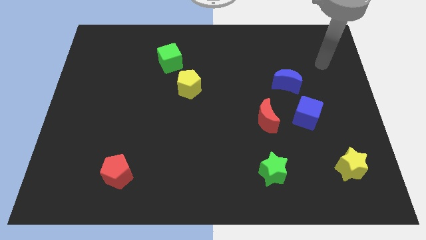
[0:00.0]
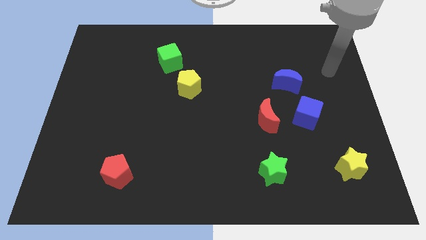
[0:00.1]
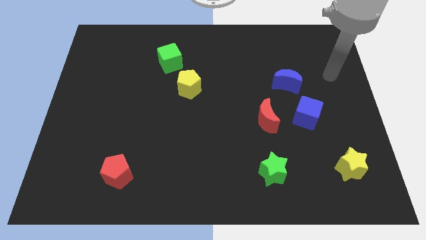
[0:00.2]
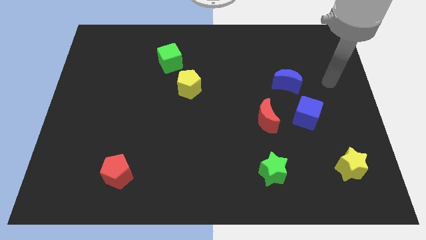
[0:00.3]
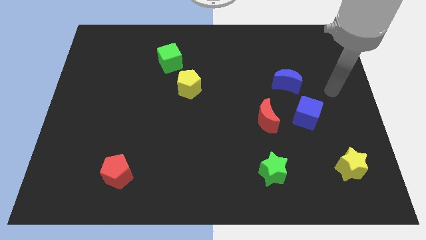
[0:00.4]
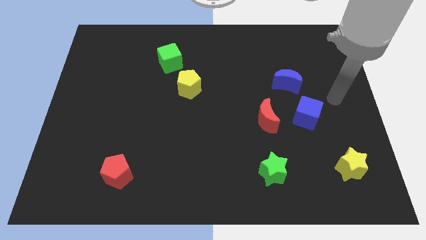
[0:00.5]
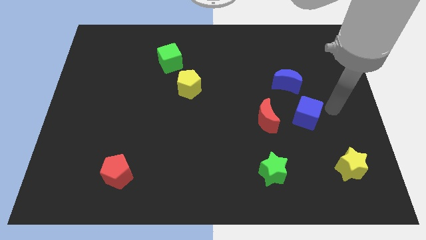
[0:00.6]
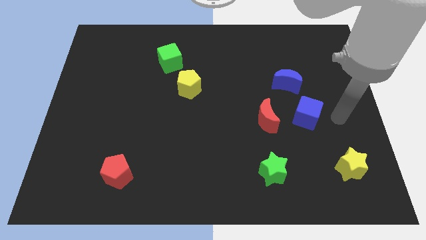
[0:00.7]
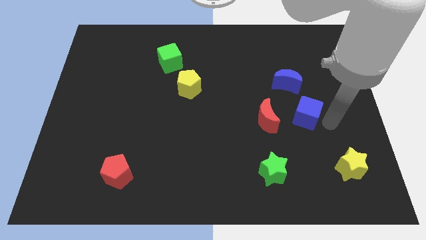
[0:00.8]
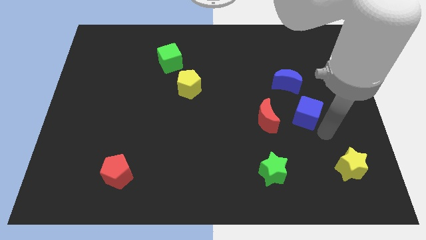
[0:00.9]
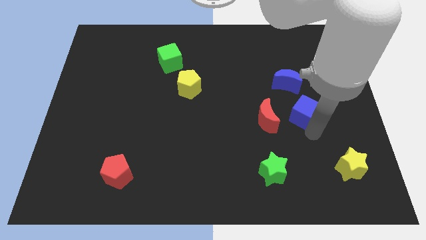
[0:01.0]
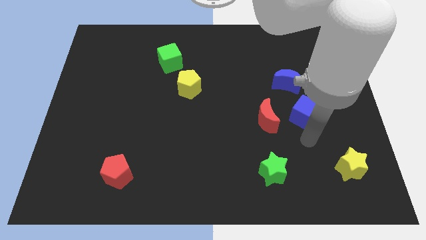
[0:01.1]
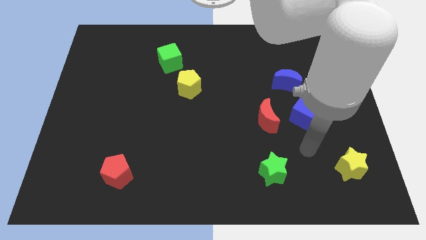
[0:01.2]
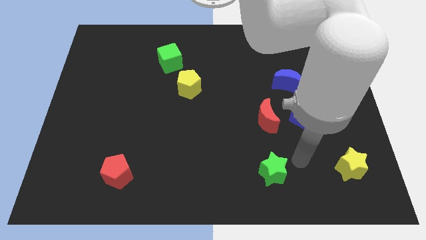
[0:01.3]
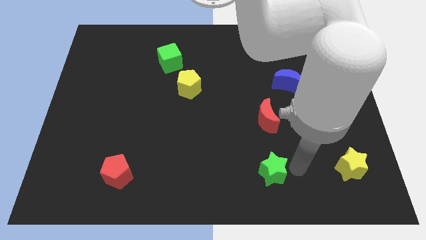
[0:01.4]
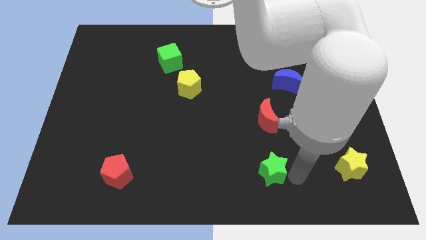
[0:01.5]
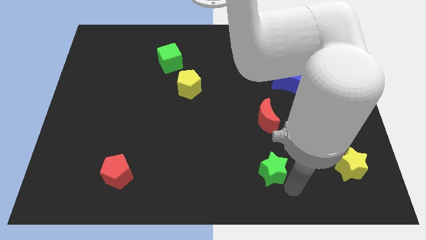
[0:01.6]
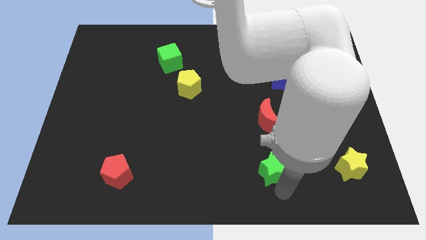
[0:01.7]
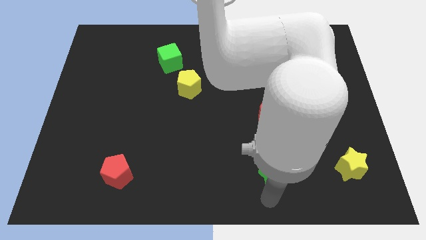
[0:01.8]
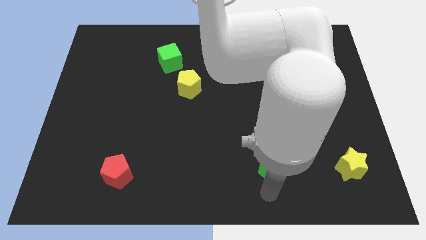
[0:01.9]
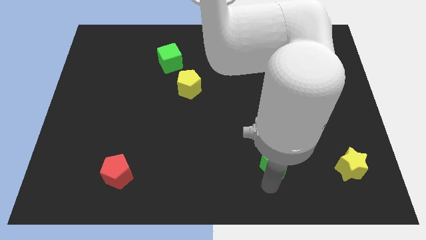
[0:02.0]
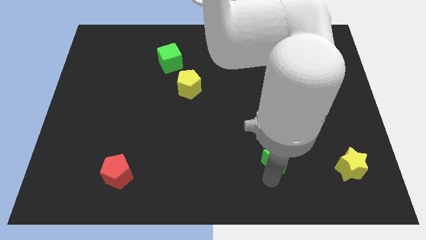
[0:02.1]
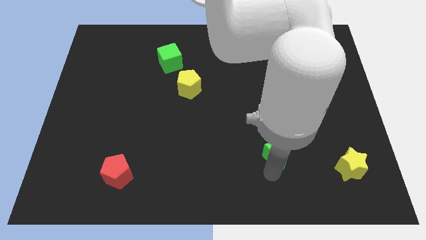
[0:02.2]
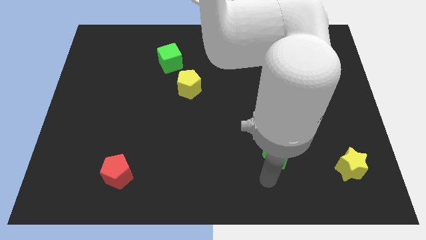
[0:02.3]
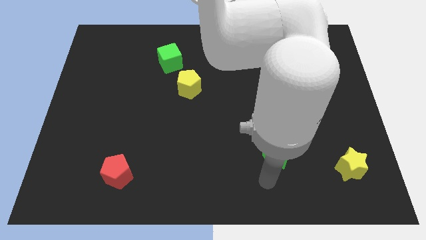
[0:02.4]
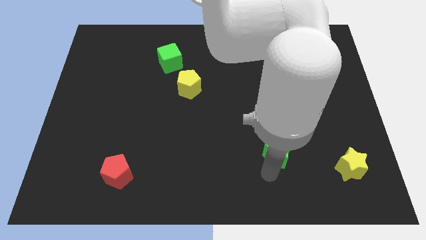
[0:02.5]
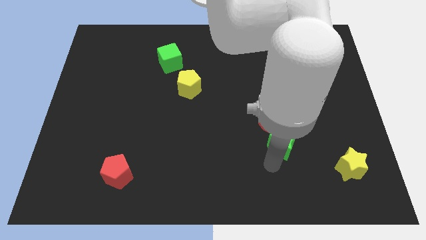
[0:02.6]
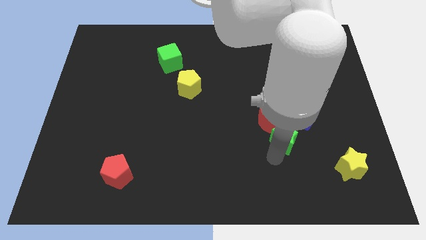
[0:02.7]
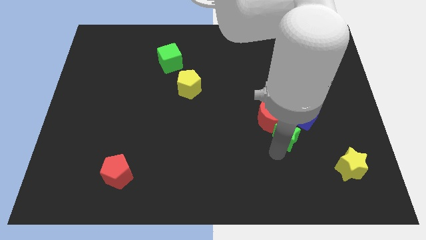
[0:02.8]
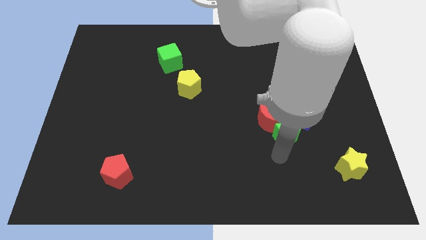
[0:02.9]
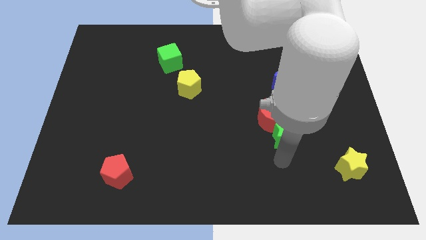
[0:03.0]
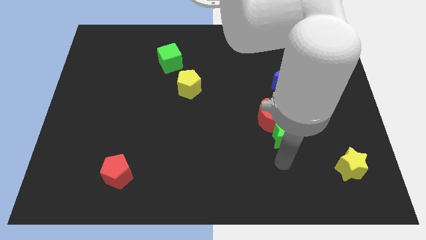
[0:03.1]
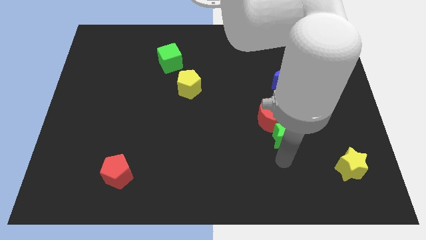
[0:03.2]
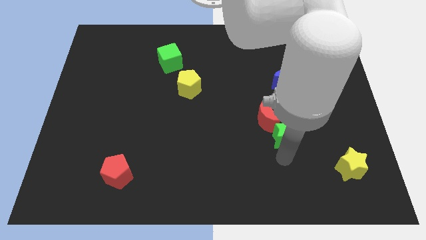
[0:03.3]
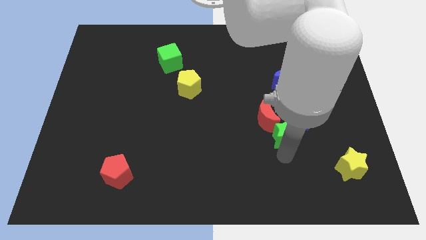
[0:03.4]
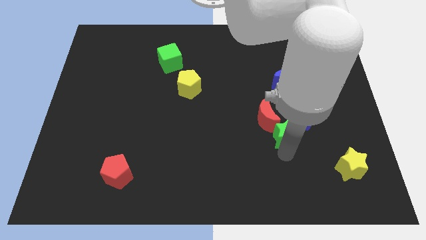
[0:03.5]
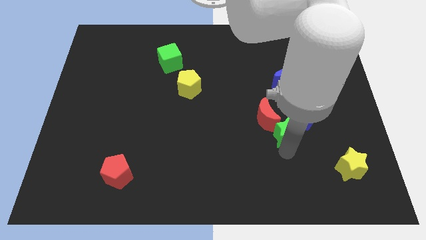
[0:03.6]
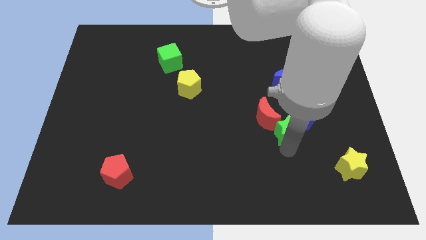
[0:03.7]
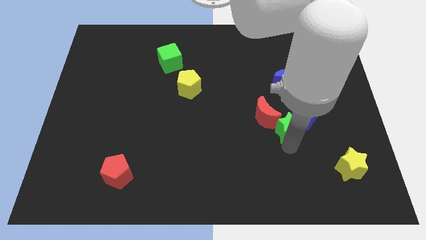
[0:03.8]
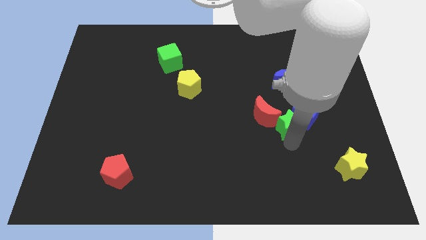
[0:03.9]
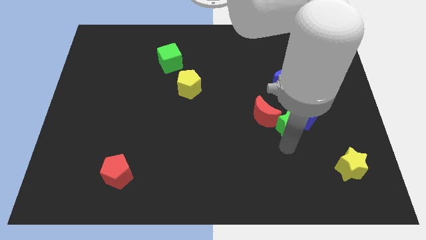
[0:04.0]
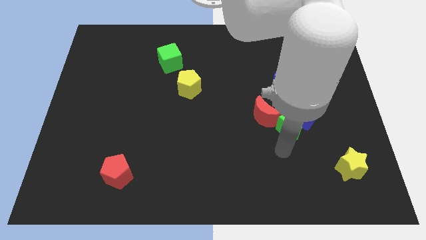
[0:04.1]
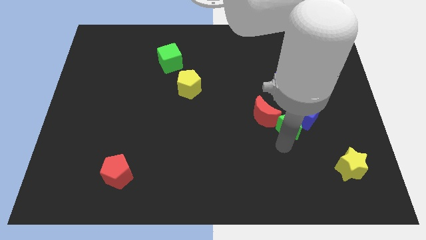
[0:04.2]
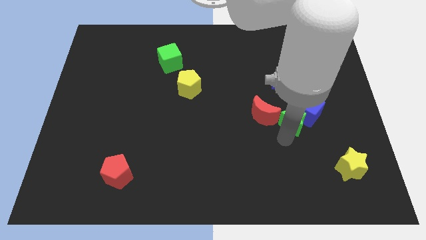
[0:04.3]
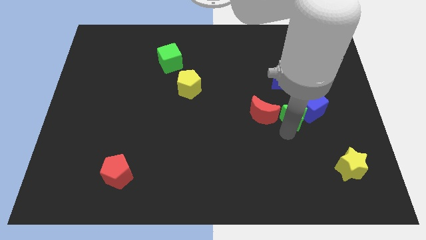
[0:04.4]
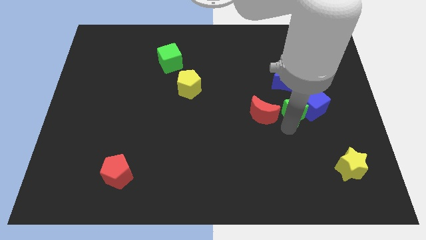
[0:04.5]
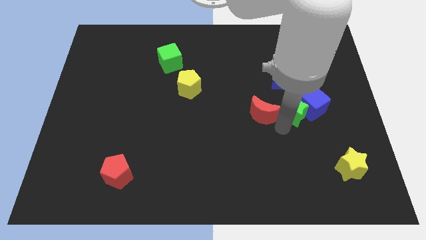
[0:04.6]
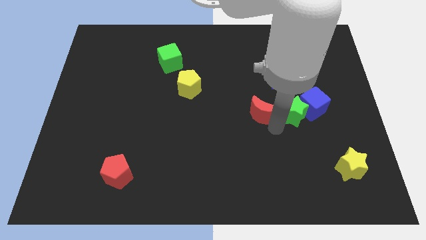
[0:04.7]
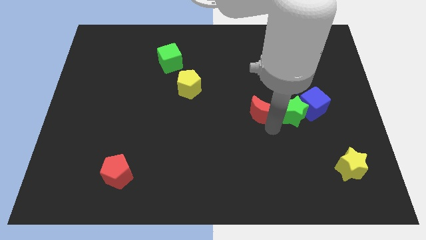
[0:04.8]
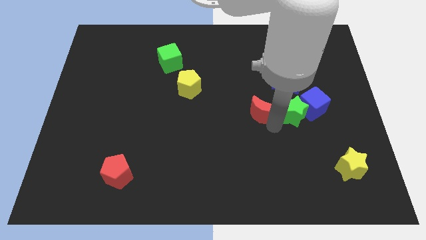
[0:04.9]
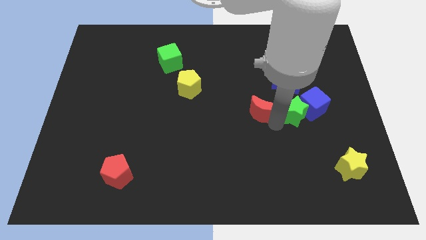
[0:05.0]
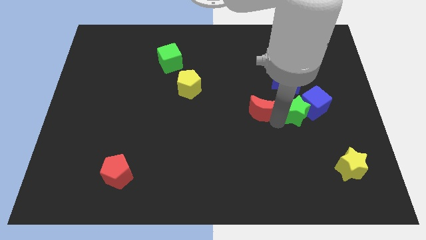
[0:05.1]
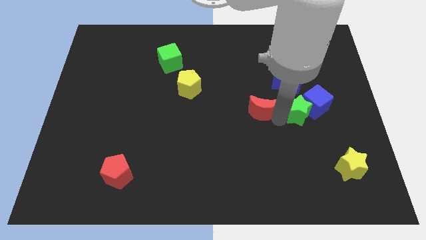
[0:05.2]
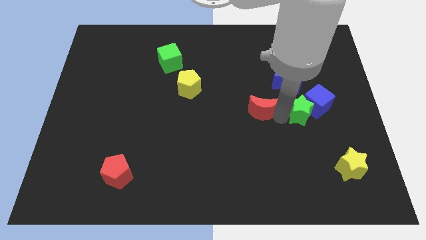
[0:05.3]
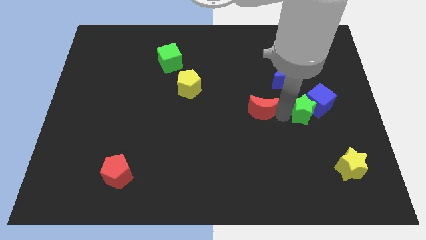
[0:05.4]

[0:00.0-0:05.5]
put the green star to the bottom right of the blue moon

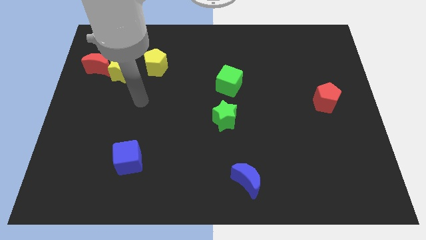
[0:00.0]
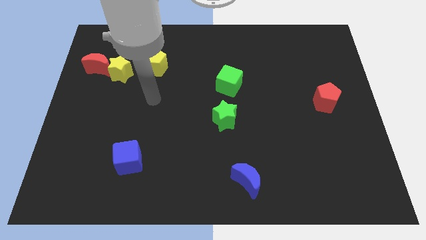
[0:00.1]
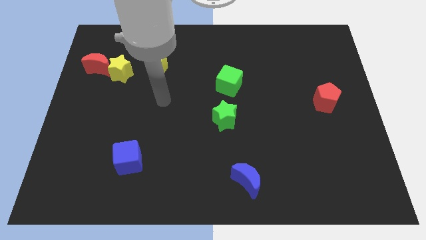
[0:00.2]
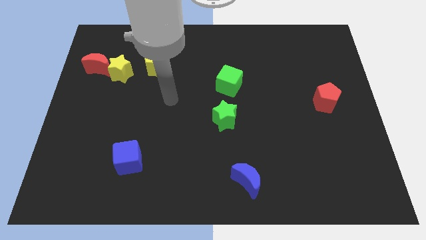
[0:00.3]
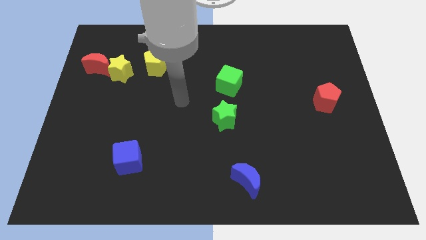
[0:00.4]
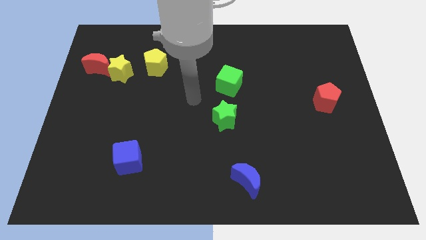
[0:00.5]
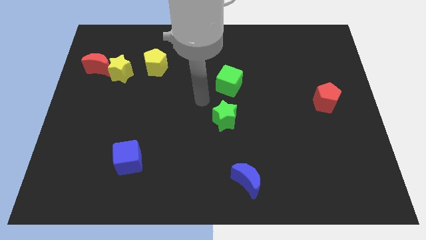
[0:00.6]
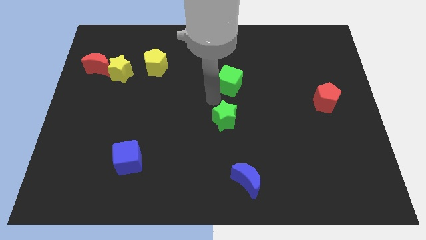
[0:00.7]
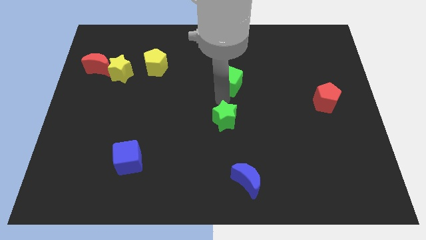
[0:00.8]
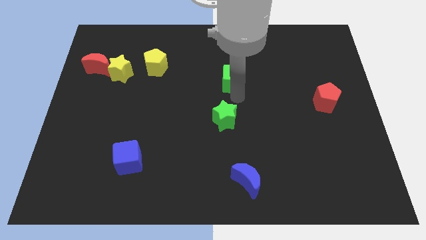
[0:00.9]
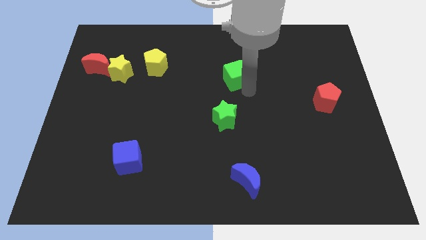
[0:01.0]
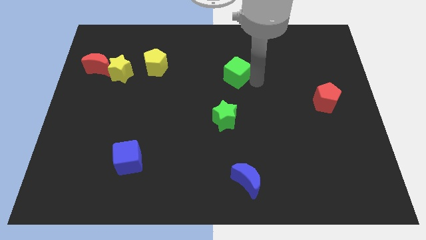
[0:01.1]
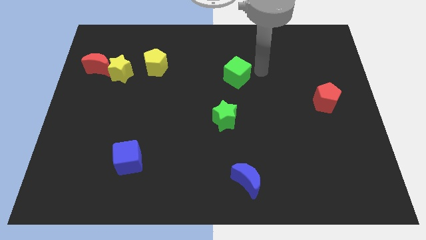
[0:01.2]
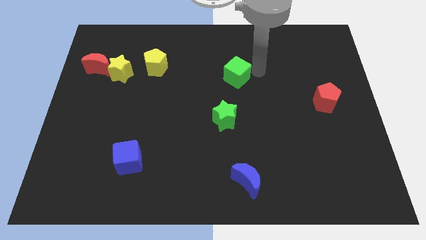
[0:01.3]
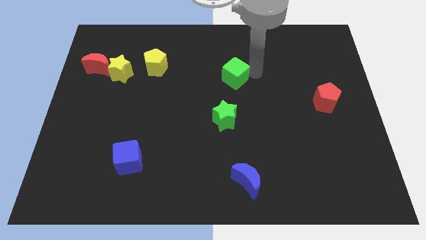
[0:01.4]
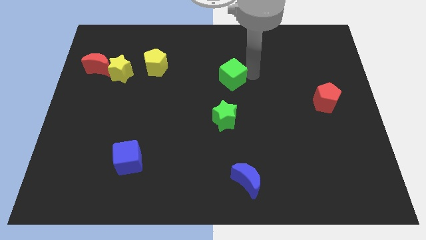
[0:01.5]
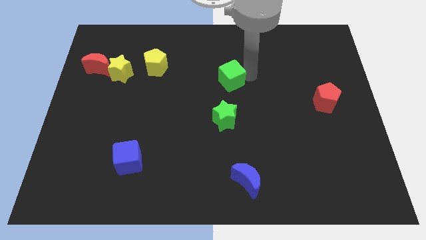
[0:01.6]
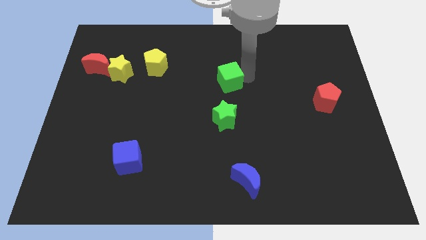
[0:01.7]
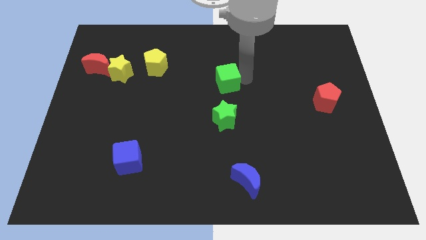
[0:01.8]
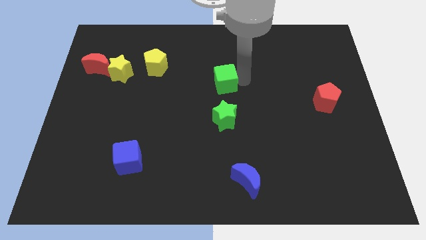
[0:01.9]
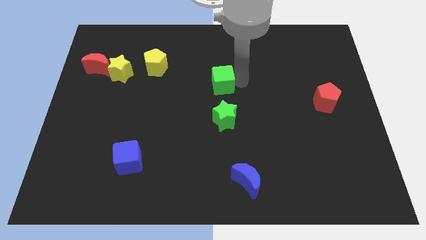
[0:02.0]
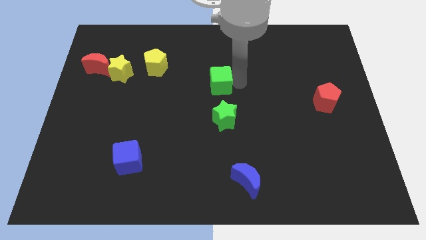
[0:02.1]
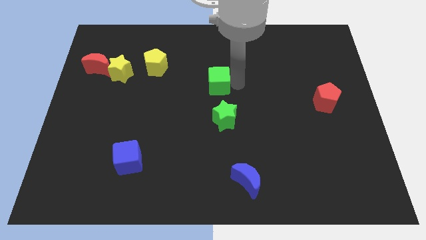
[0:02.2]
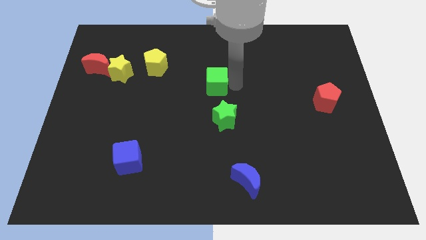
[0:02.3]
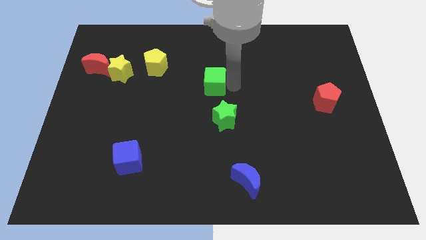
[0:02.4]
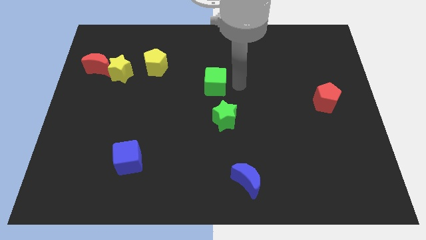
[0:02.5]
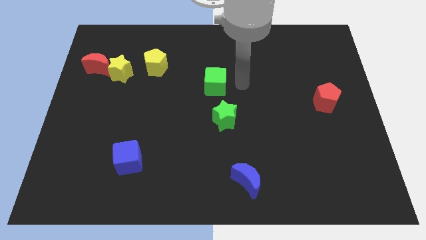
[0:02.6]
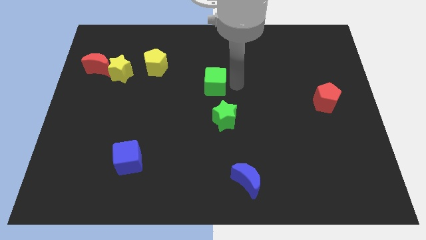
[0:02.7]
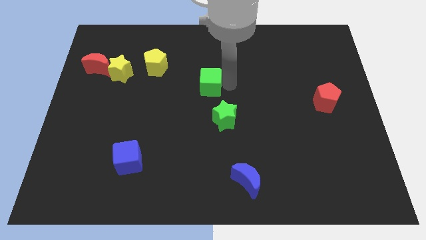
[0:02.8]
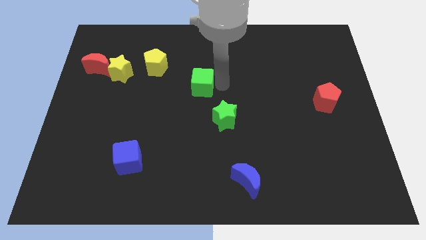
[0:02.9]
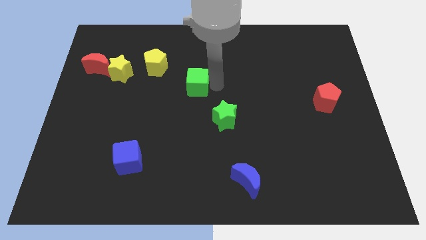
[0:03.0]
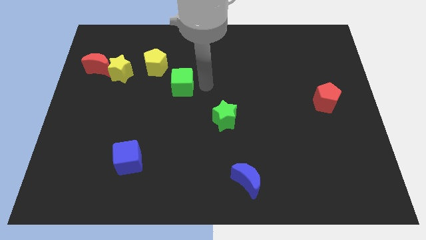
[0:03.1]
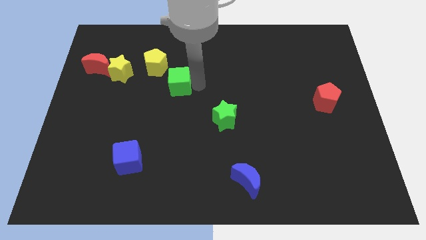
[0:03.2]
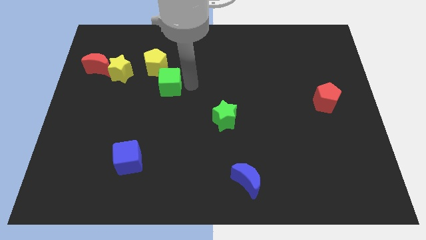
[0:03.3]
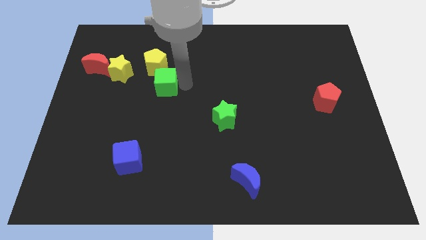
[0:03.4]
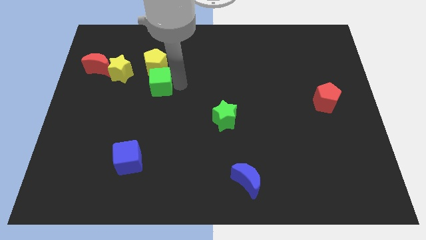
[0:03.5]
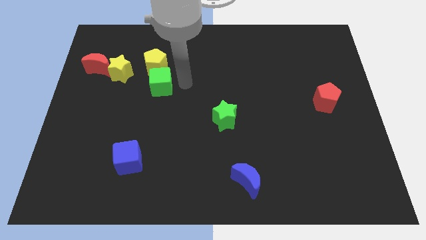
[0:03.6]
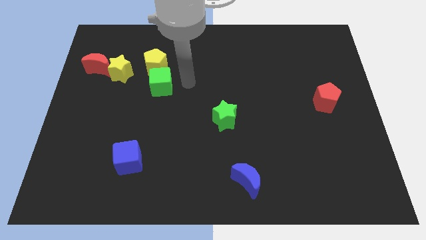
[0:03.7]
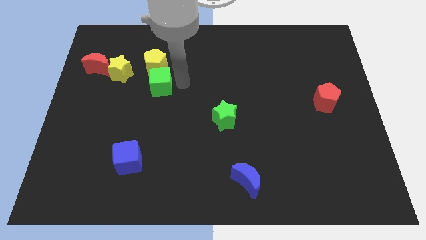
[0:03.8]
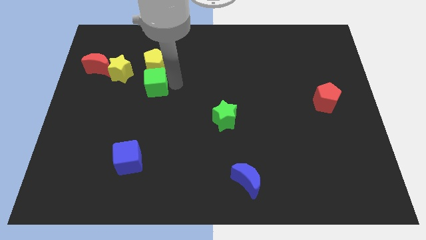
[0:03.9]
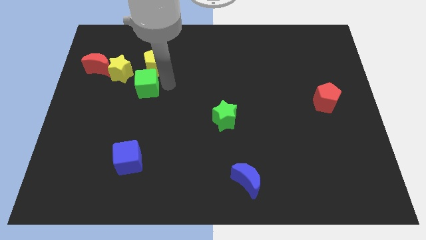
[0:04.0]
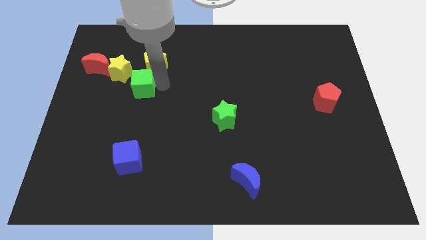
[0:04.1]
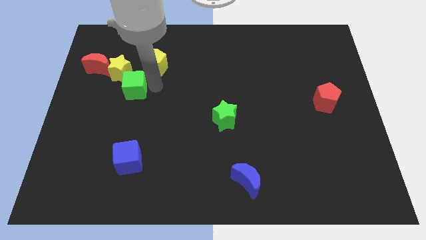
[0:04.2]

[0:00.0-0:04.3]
put the green cube to the bottom right side of the red moon
